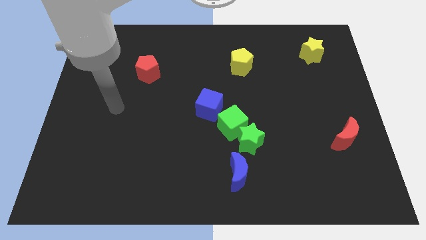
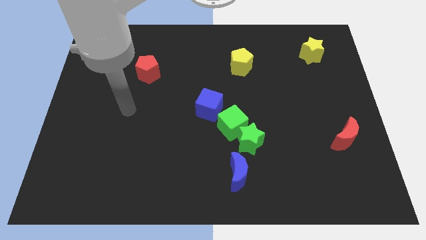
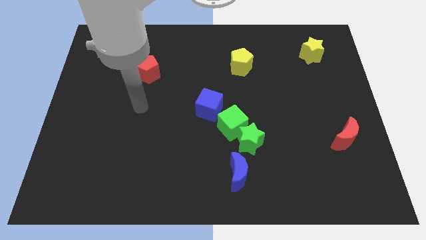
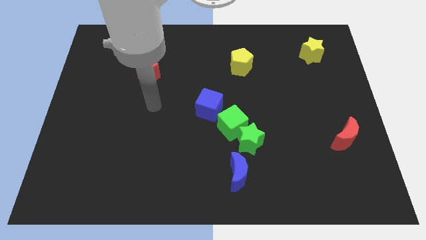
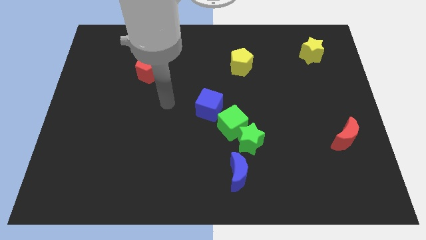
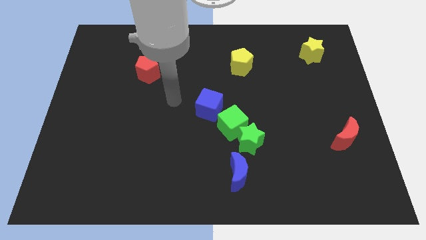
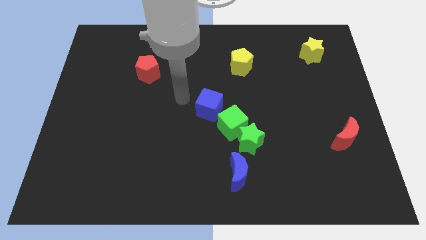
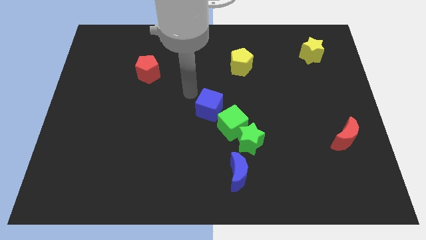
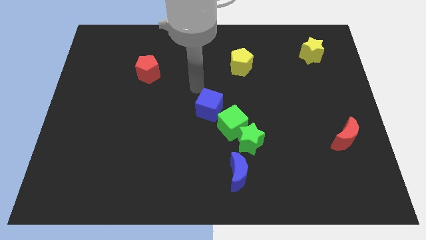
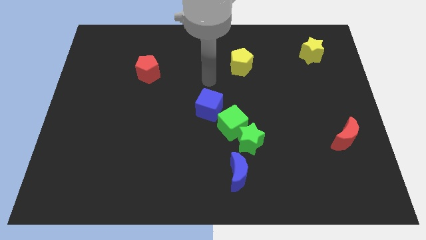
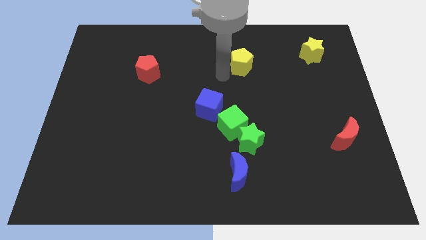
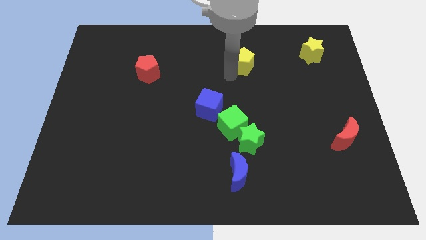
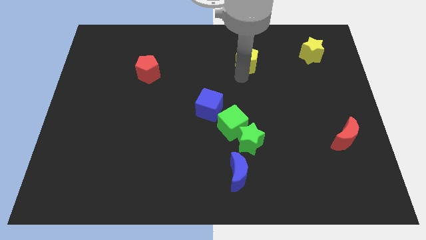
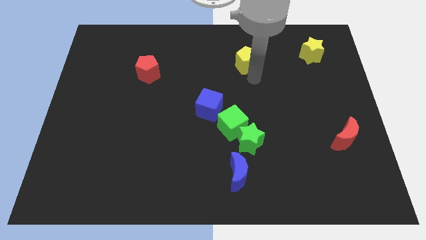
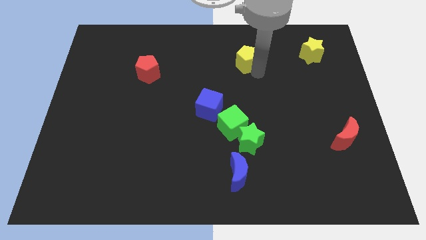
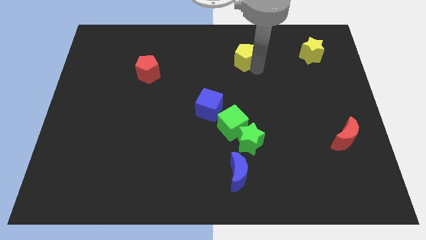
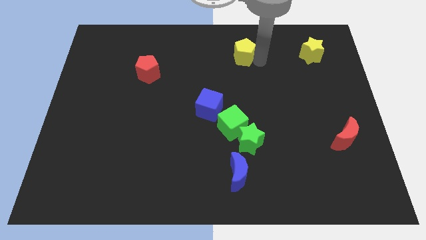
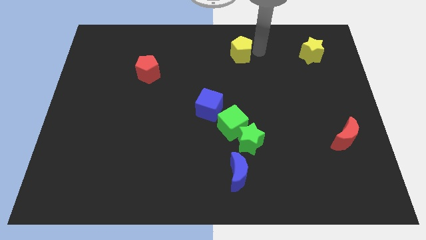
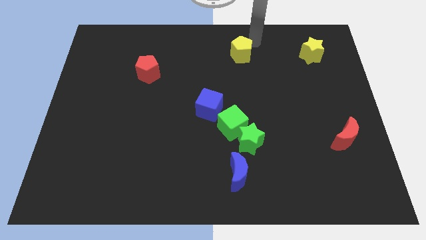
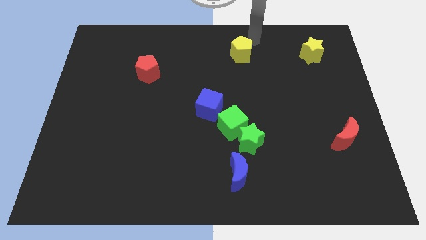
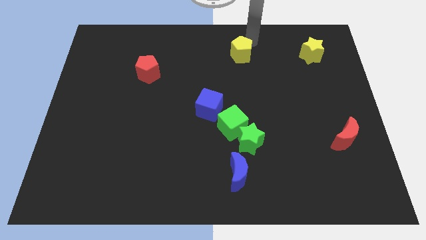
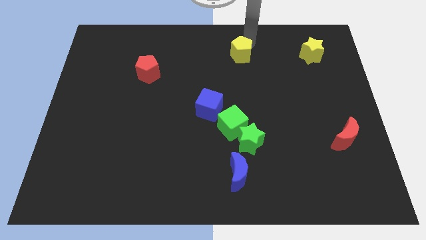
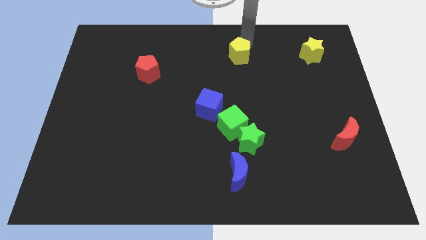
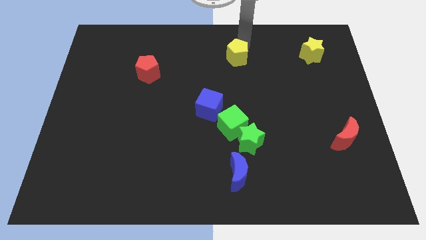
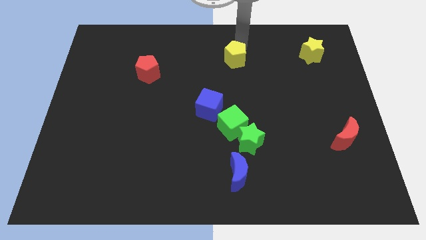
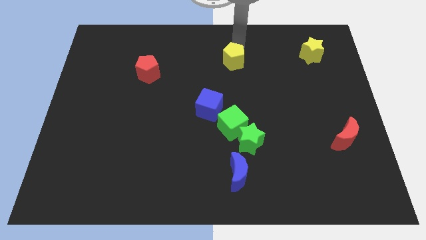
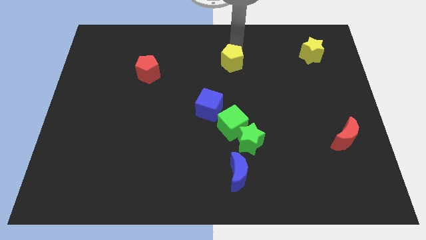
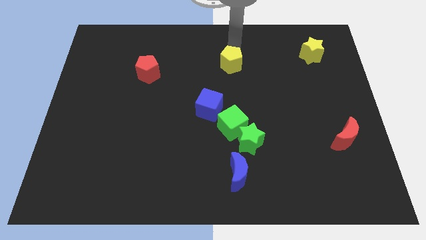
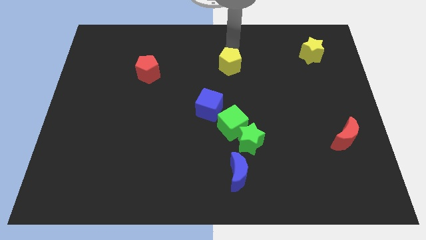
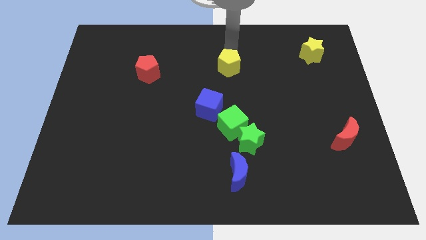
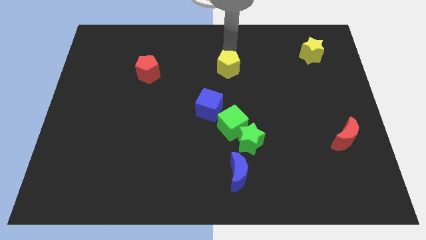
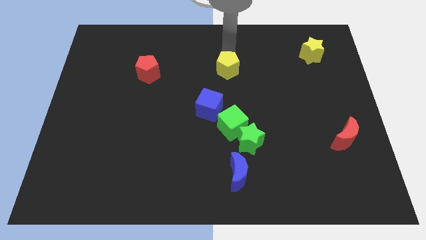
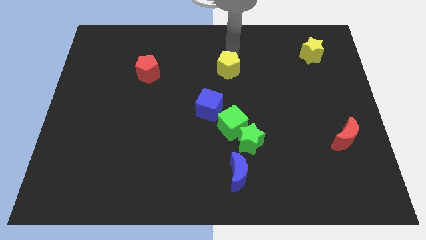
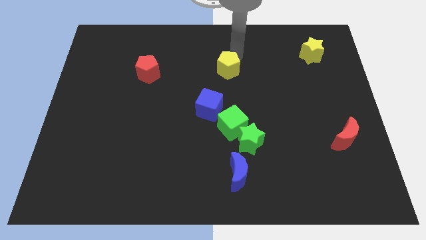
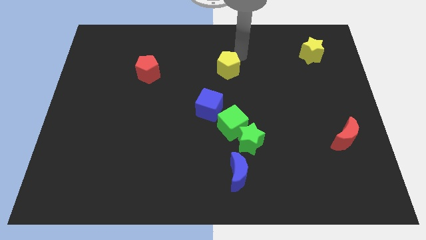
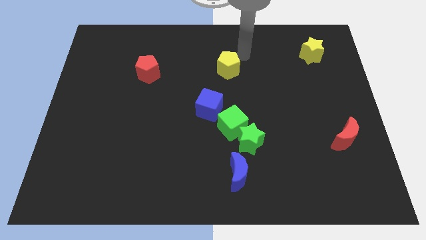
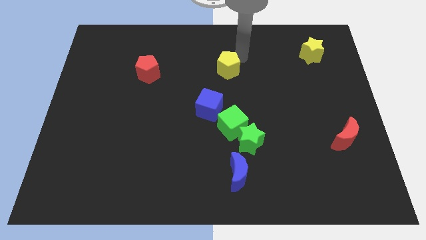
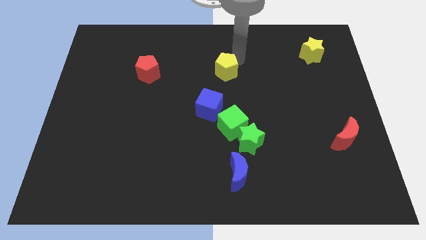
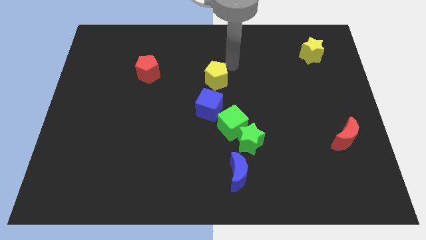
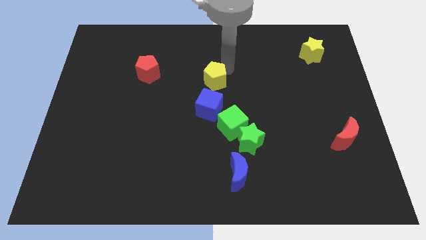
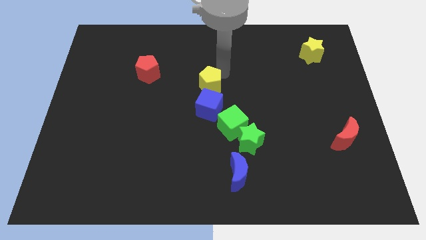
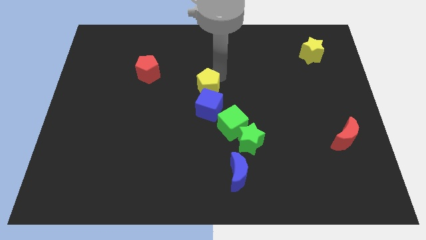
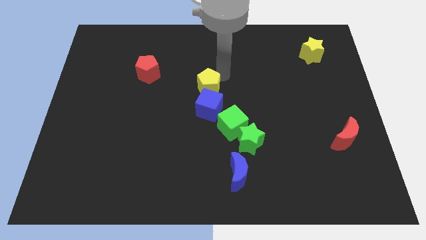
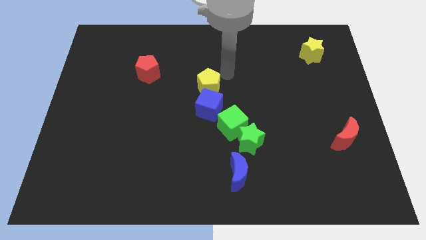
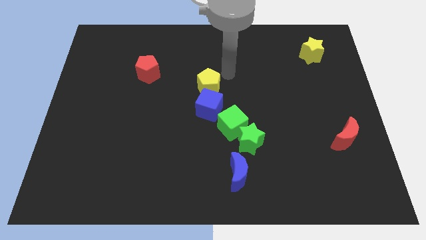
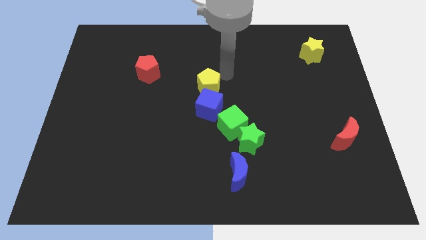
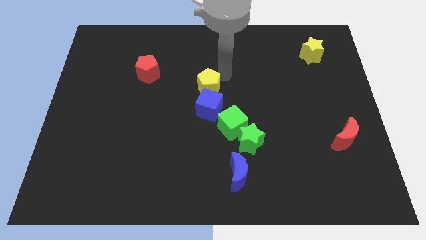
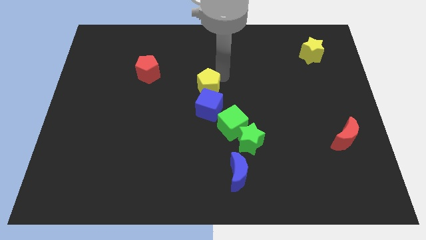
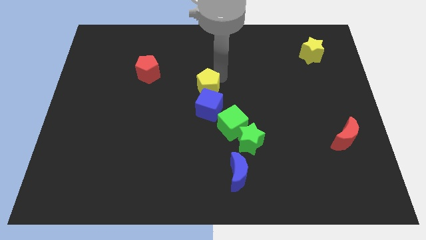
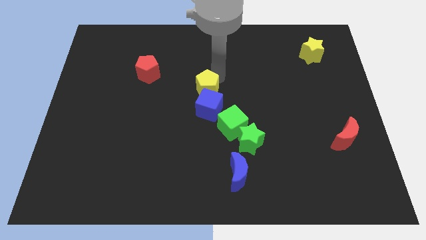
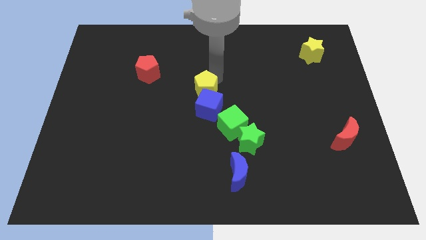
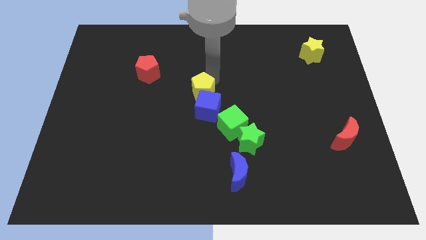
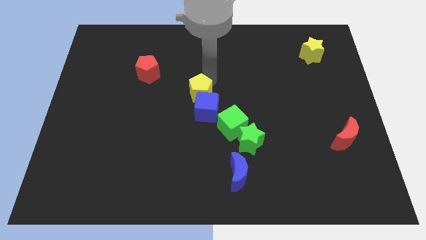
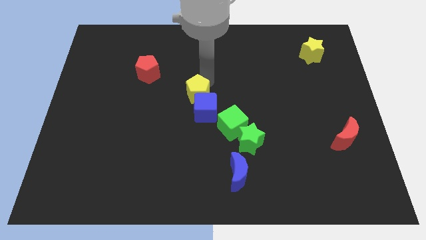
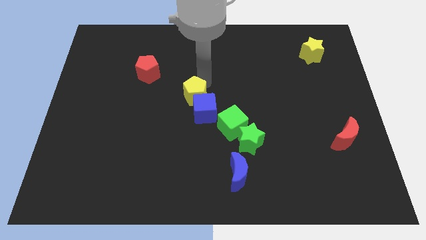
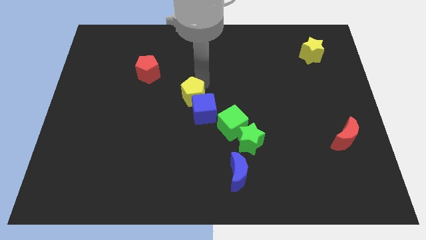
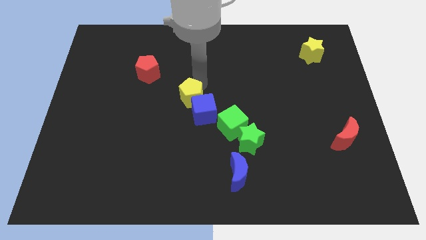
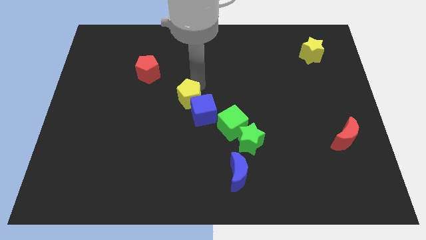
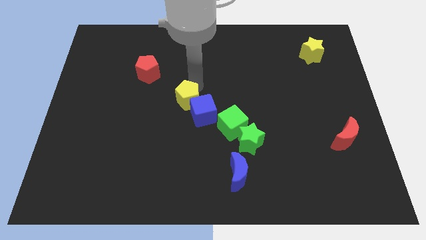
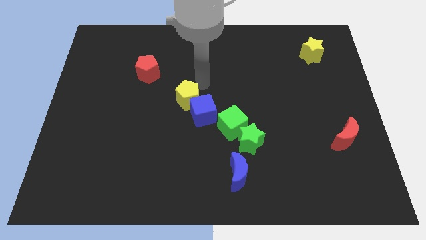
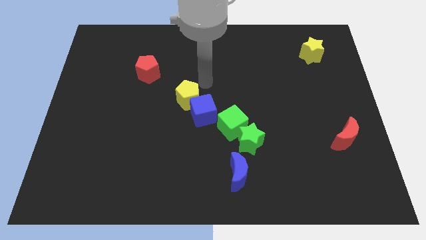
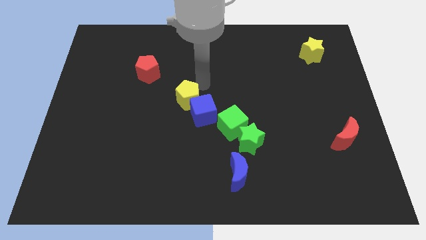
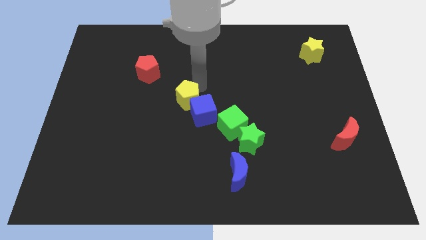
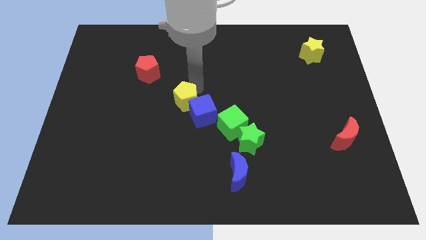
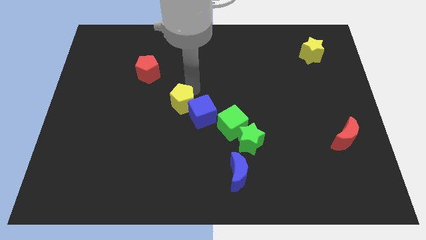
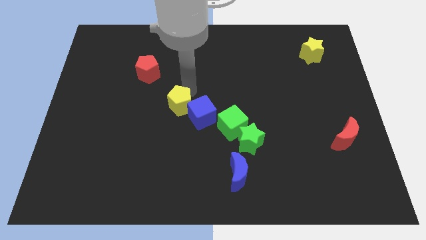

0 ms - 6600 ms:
push the yellow pentagon diagonally downwards and to the left

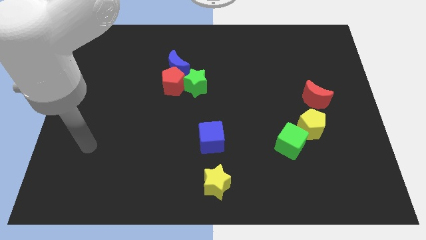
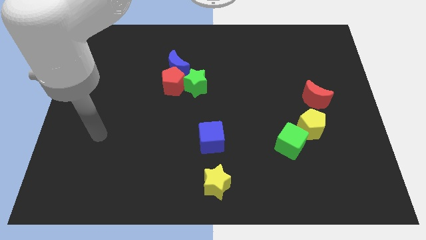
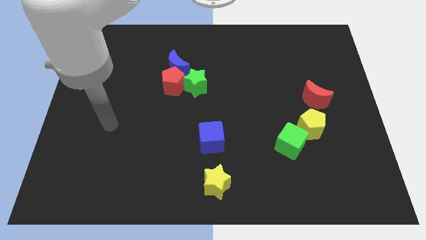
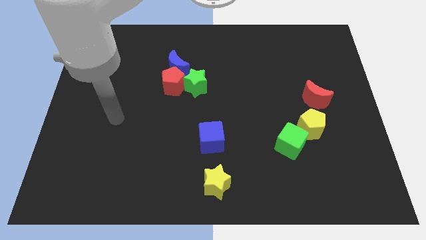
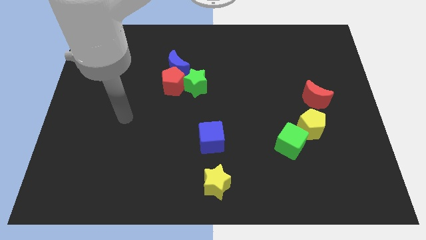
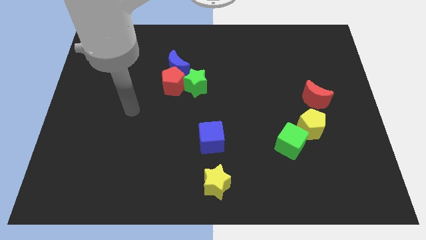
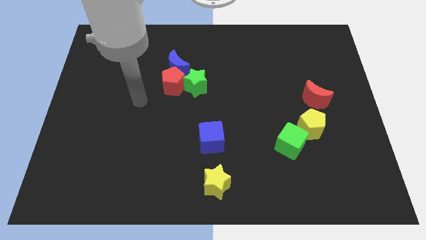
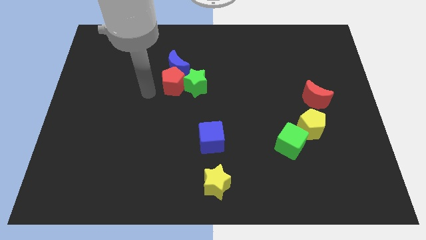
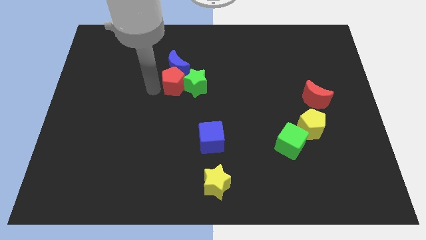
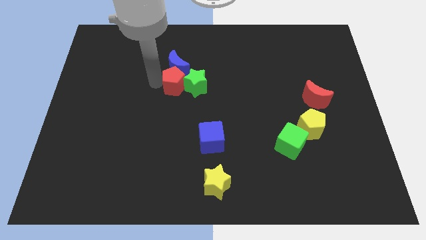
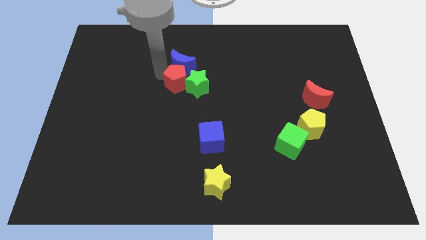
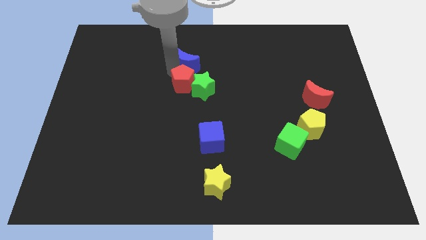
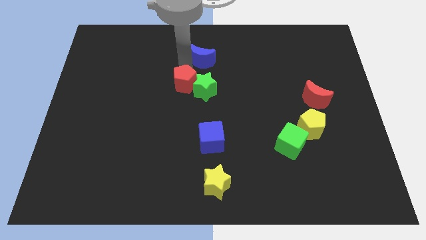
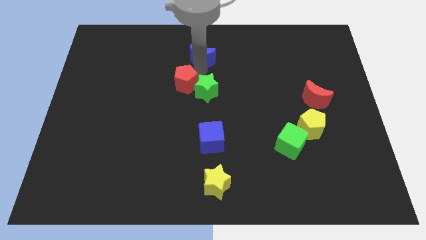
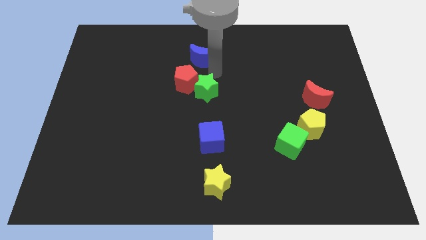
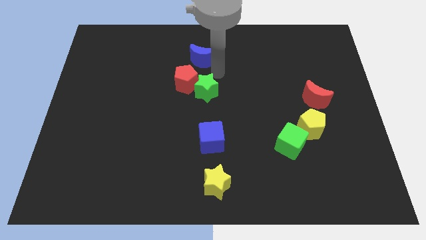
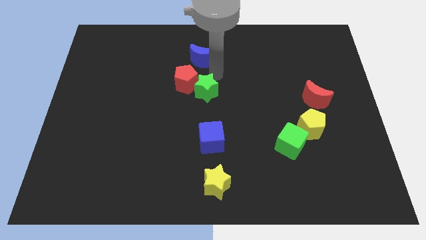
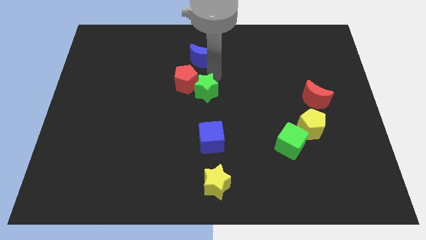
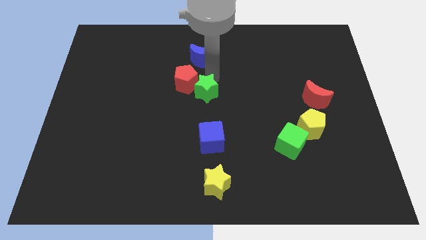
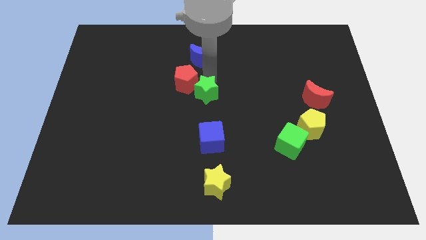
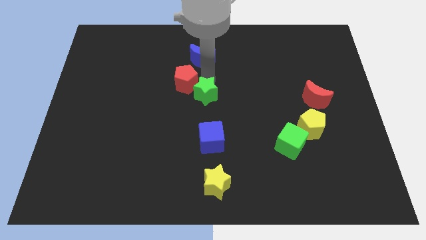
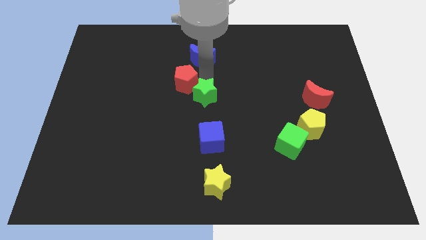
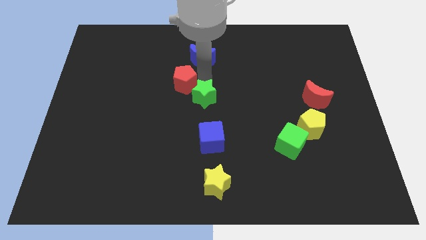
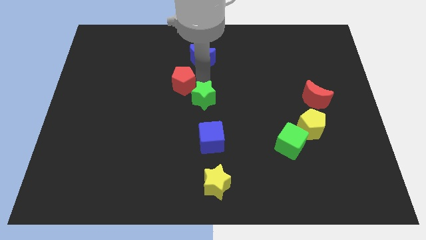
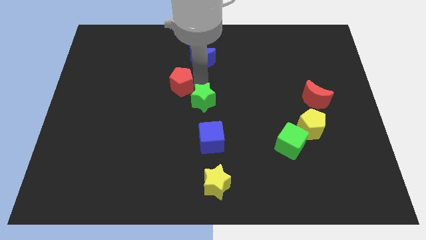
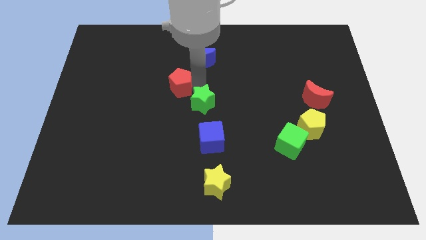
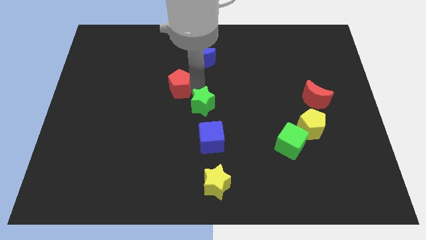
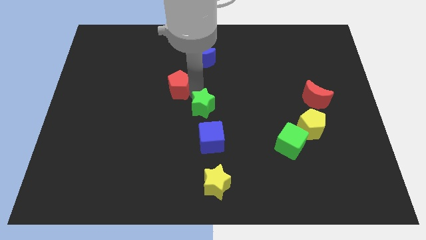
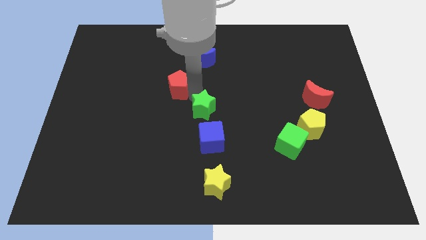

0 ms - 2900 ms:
move the green star downwards a bit
